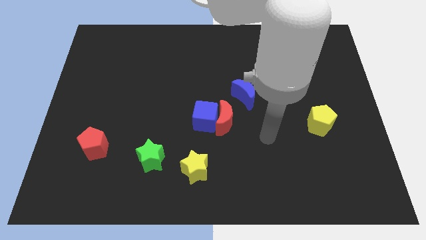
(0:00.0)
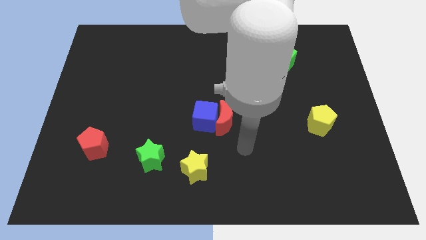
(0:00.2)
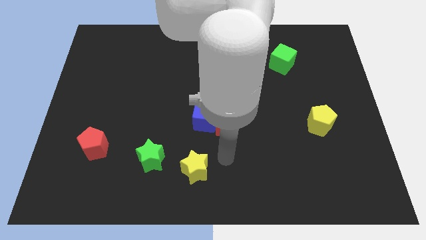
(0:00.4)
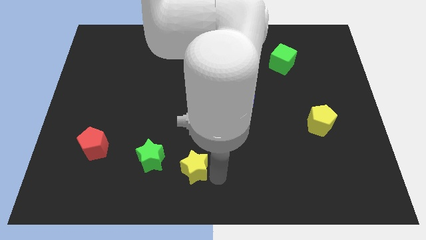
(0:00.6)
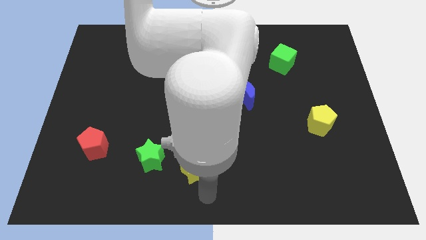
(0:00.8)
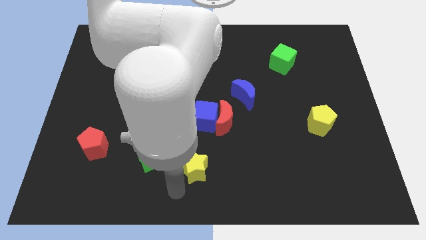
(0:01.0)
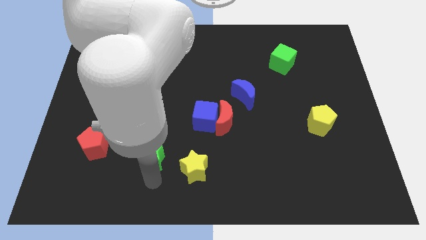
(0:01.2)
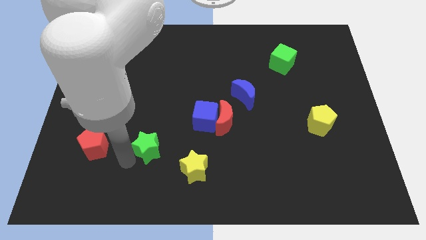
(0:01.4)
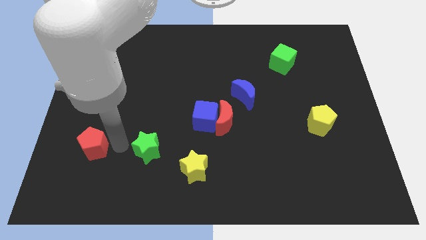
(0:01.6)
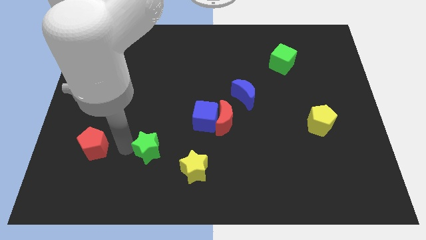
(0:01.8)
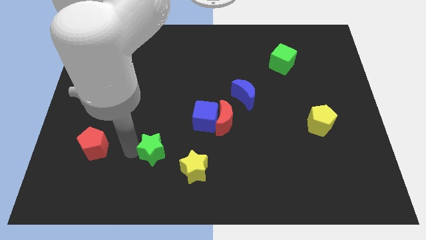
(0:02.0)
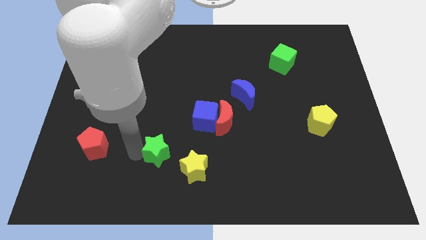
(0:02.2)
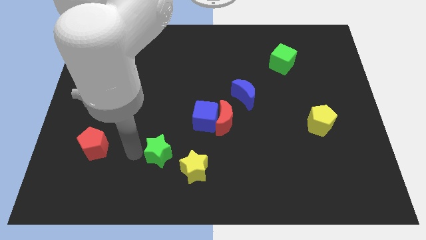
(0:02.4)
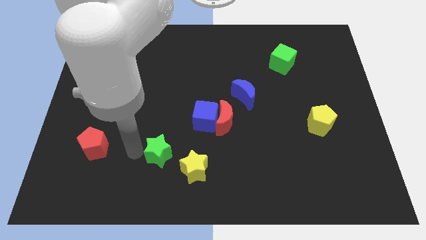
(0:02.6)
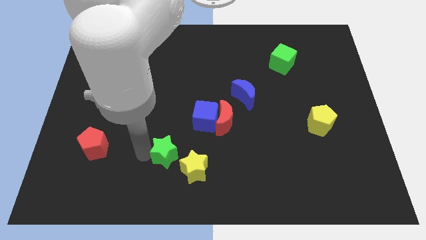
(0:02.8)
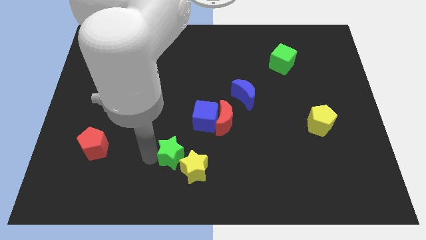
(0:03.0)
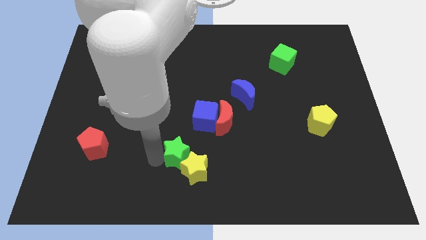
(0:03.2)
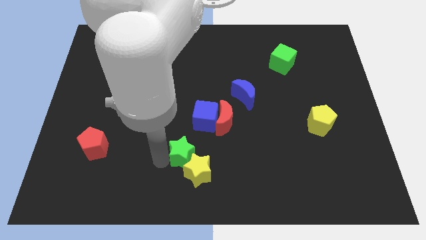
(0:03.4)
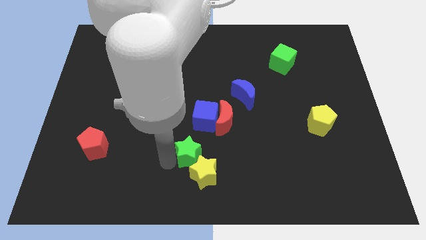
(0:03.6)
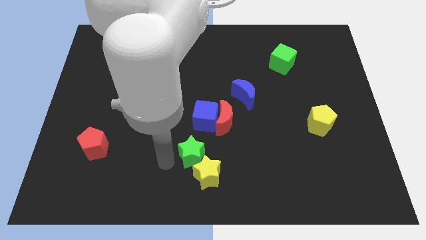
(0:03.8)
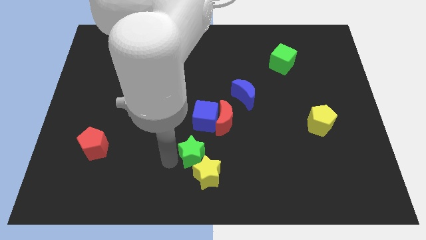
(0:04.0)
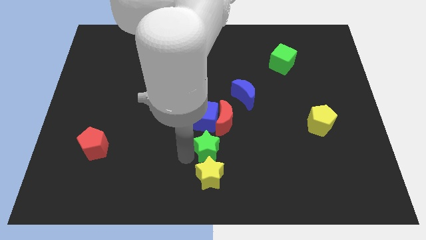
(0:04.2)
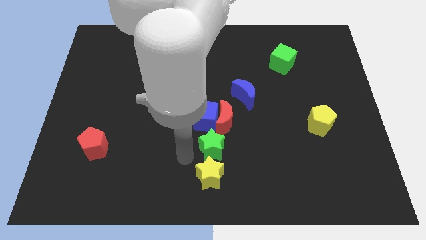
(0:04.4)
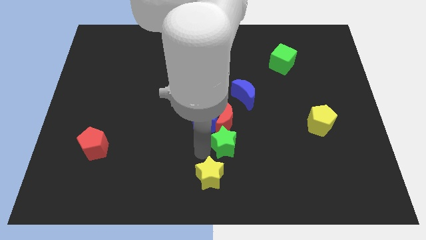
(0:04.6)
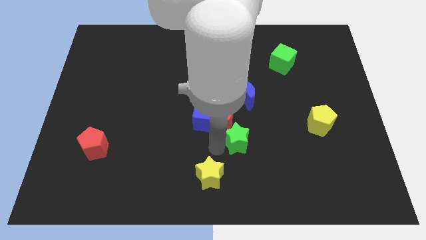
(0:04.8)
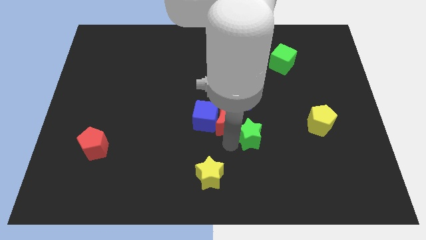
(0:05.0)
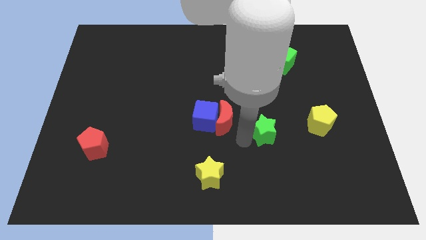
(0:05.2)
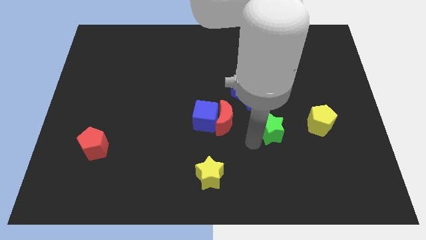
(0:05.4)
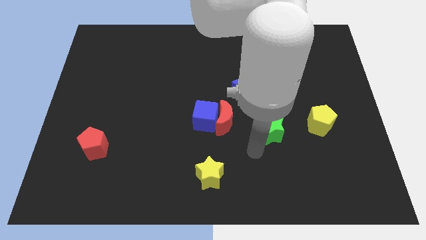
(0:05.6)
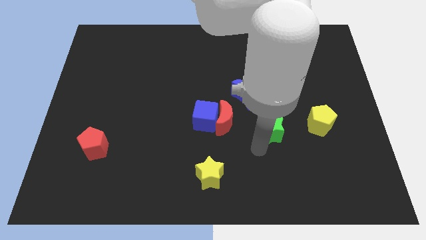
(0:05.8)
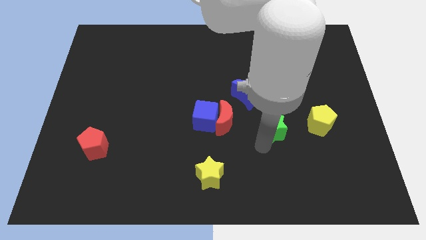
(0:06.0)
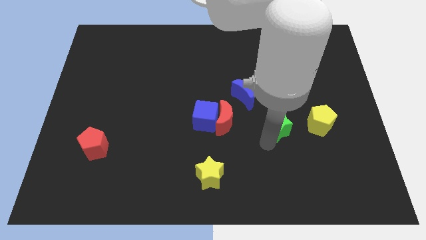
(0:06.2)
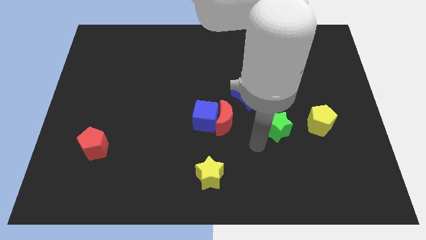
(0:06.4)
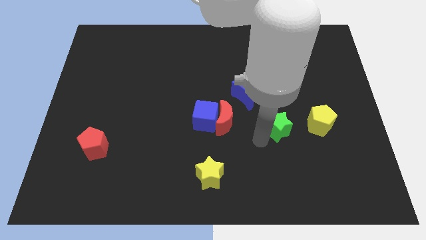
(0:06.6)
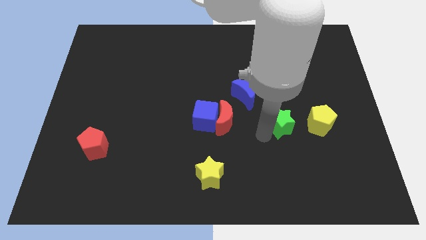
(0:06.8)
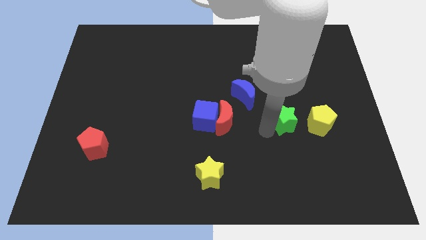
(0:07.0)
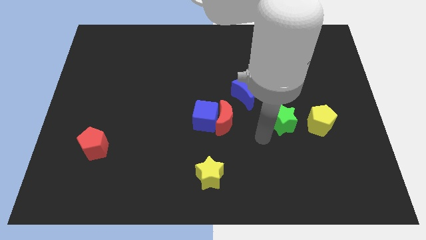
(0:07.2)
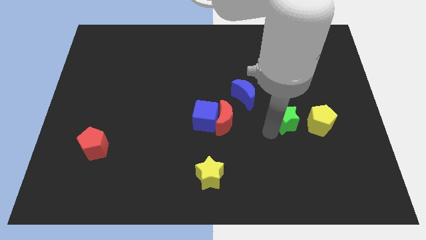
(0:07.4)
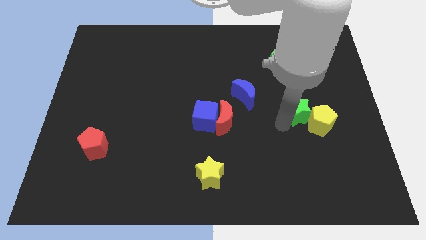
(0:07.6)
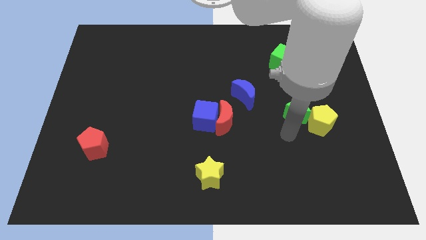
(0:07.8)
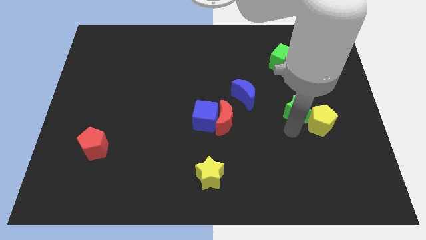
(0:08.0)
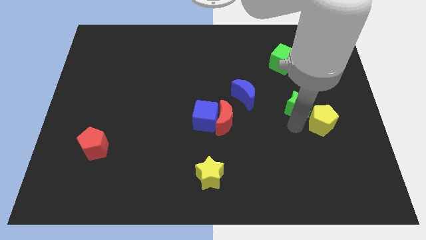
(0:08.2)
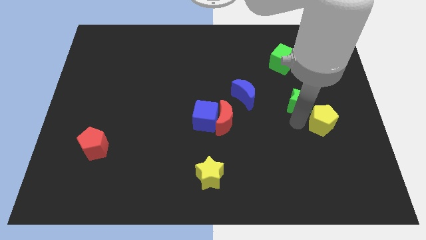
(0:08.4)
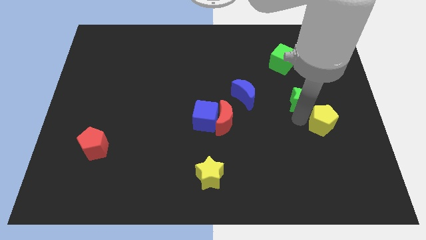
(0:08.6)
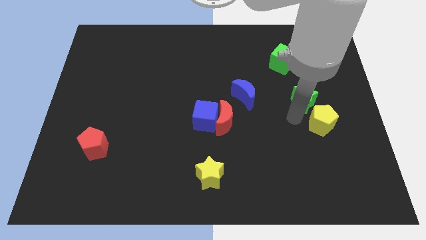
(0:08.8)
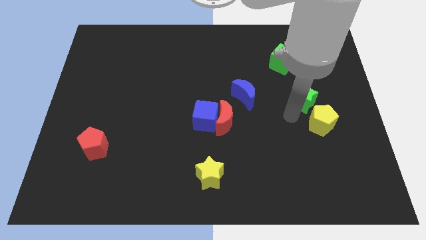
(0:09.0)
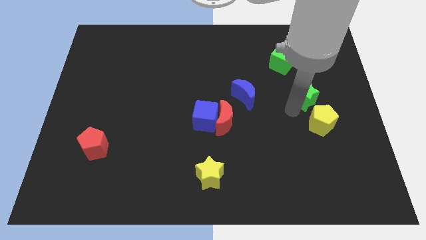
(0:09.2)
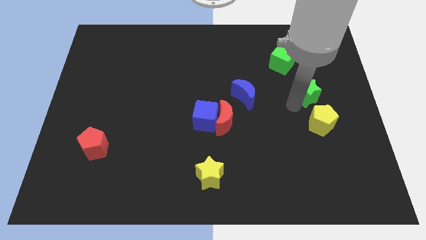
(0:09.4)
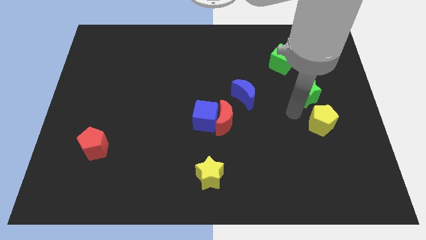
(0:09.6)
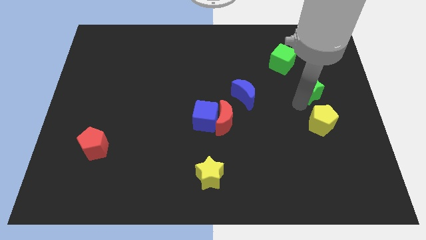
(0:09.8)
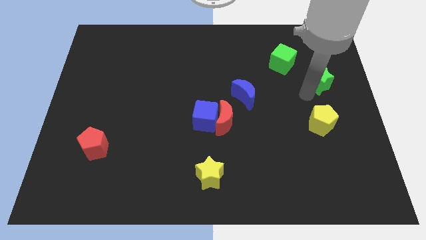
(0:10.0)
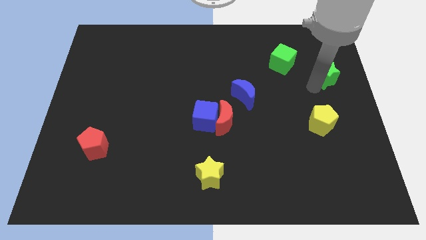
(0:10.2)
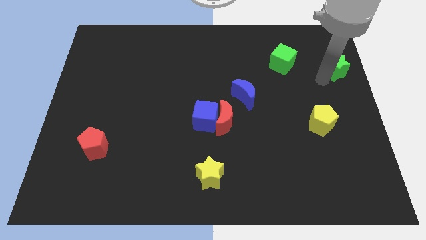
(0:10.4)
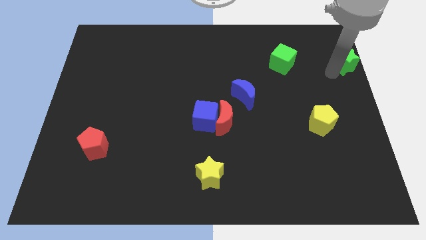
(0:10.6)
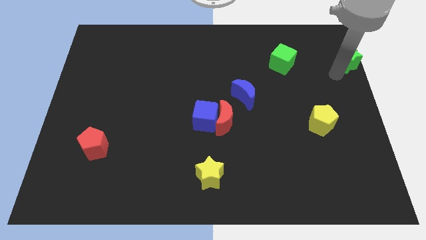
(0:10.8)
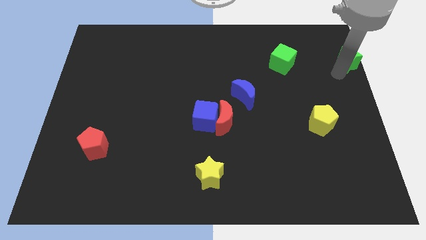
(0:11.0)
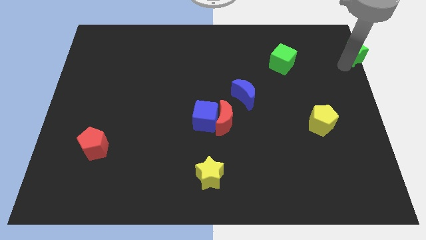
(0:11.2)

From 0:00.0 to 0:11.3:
slide the green star to the top right of the board
